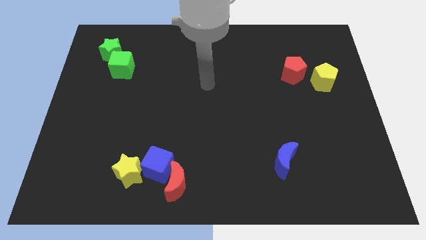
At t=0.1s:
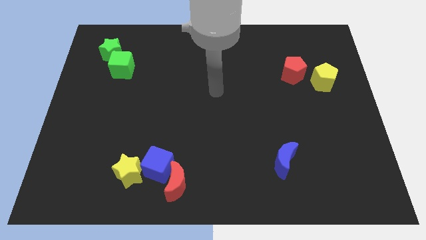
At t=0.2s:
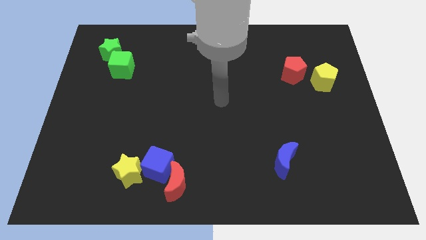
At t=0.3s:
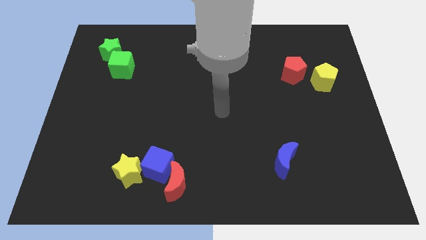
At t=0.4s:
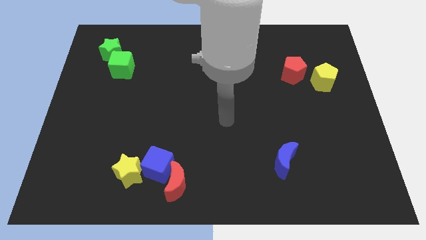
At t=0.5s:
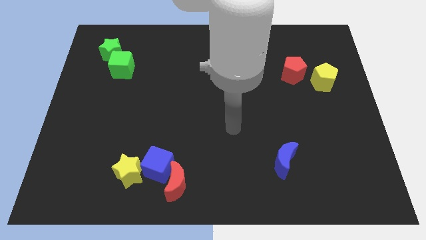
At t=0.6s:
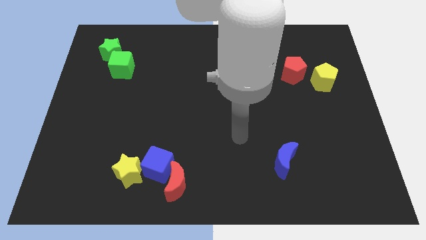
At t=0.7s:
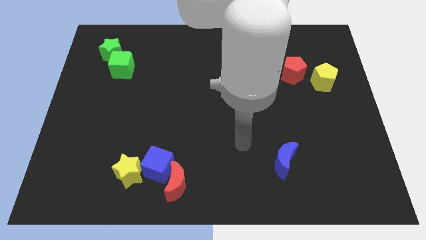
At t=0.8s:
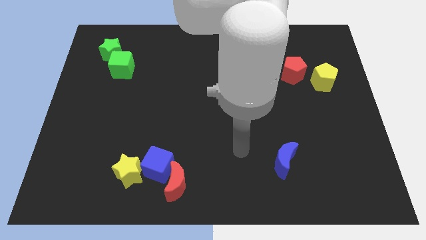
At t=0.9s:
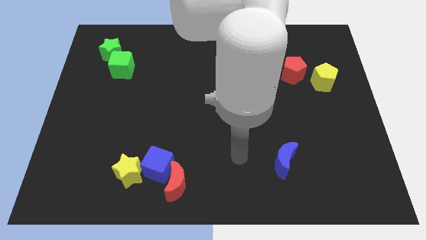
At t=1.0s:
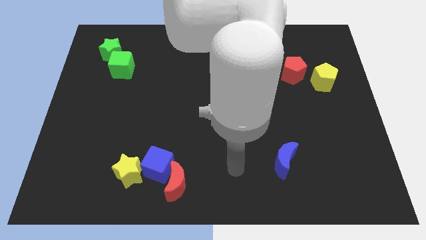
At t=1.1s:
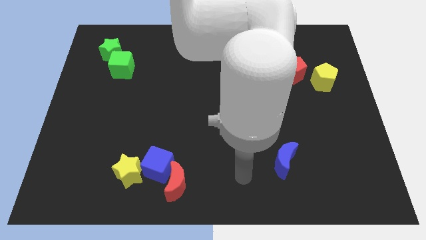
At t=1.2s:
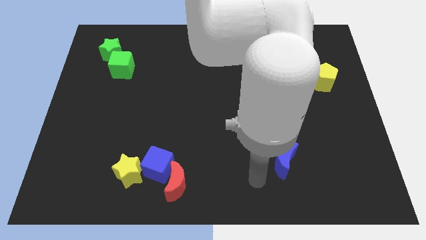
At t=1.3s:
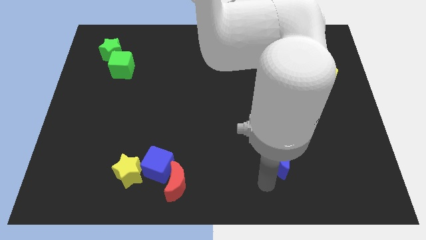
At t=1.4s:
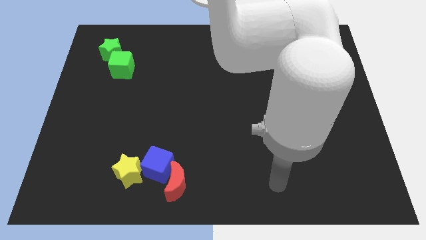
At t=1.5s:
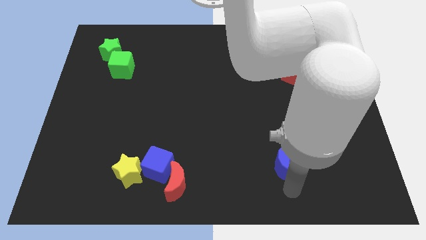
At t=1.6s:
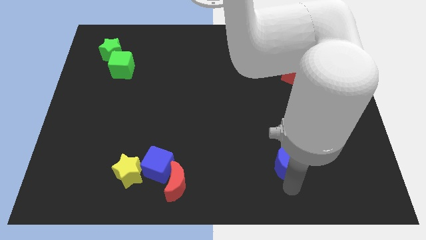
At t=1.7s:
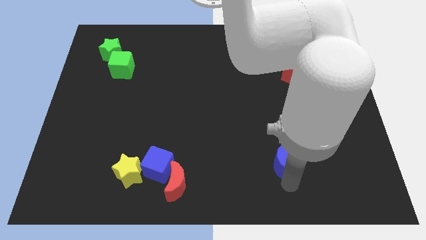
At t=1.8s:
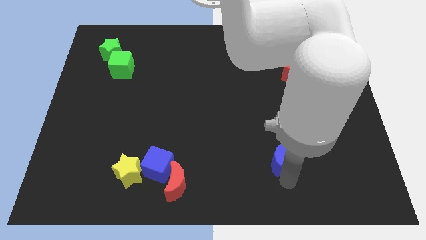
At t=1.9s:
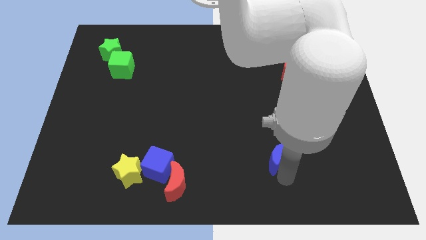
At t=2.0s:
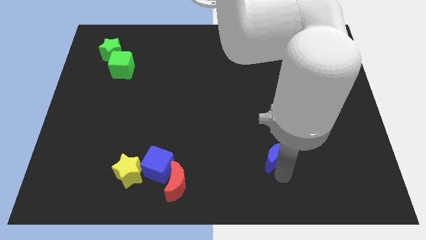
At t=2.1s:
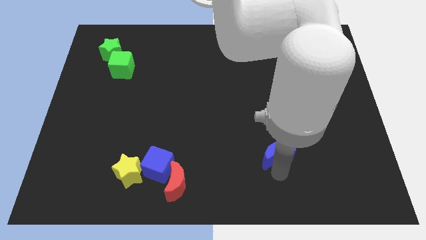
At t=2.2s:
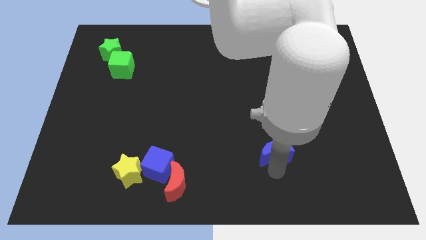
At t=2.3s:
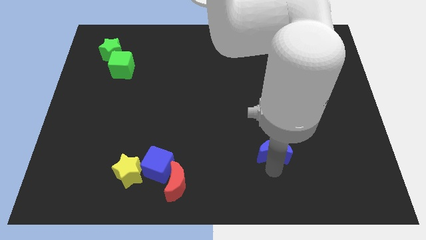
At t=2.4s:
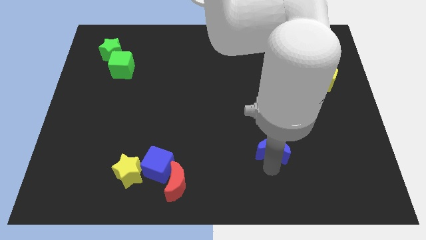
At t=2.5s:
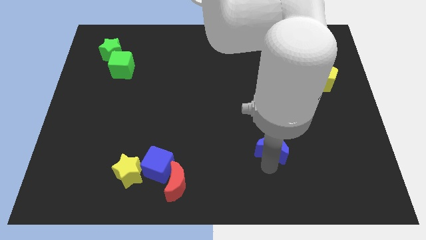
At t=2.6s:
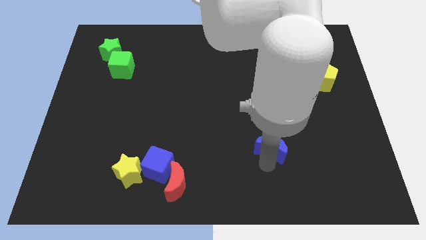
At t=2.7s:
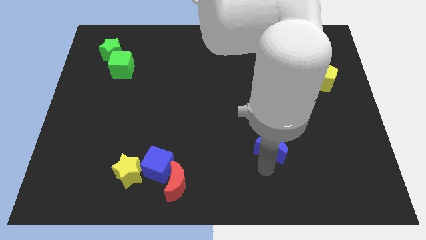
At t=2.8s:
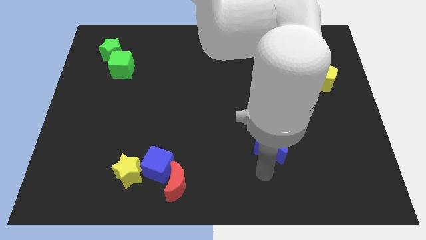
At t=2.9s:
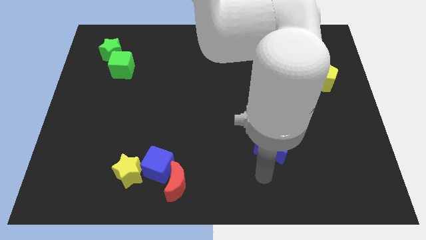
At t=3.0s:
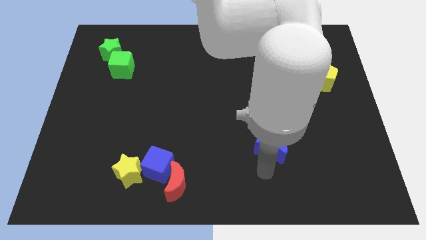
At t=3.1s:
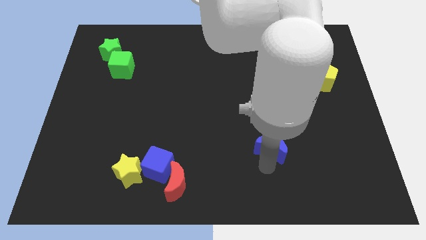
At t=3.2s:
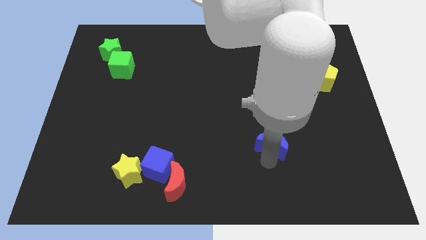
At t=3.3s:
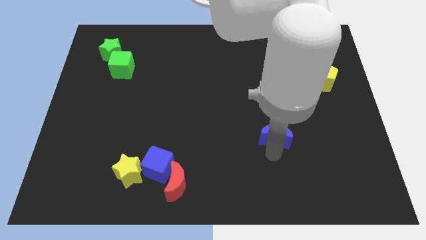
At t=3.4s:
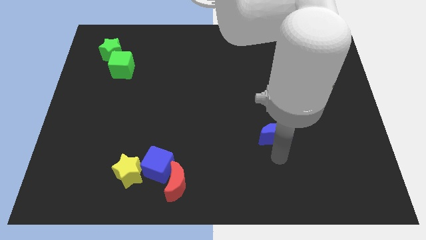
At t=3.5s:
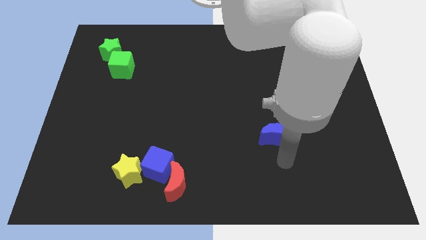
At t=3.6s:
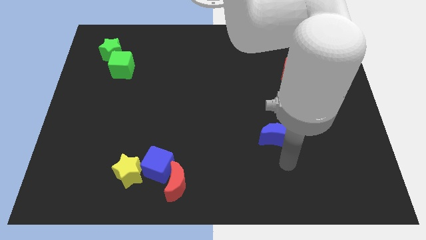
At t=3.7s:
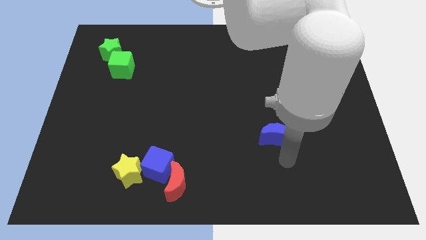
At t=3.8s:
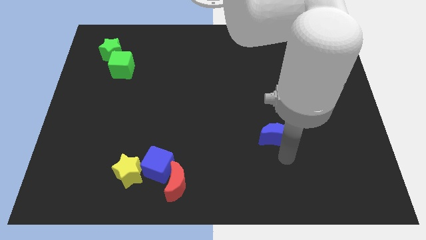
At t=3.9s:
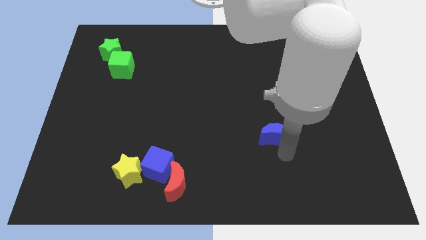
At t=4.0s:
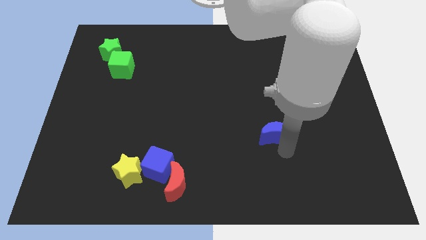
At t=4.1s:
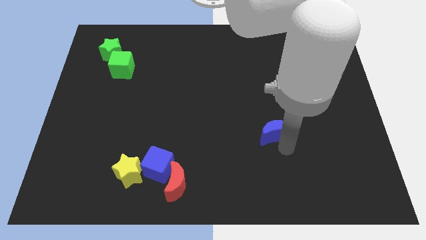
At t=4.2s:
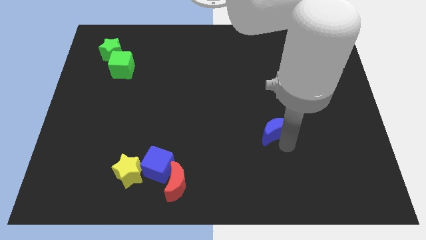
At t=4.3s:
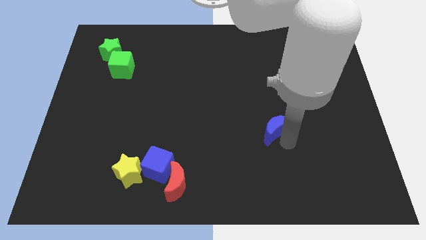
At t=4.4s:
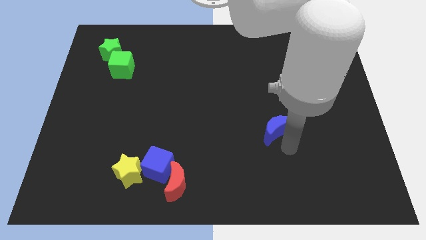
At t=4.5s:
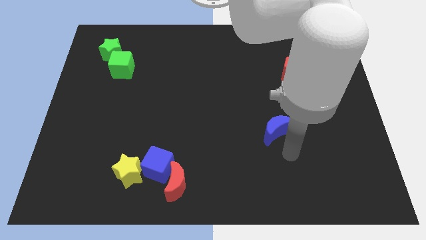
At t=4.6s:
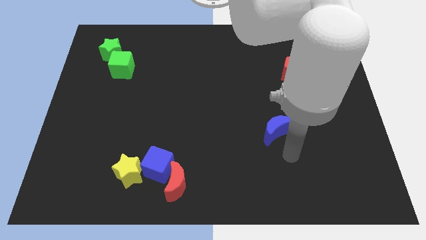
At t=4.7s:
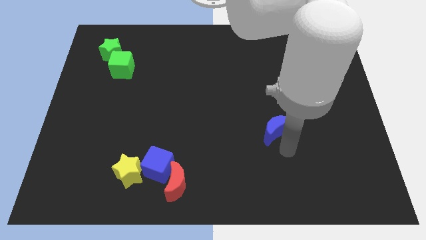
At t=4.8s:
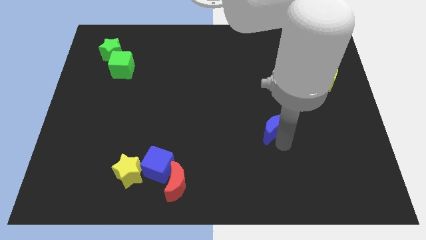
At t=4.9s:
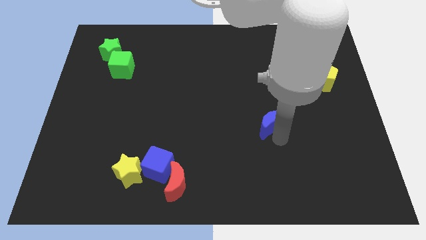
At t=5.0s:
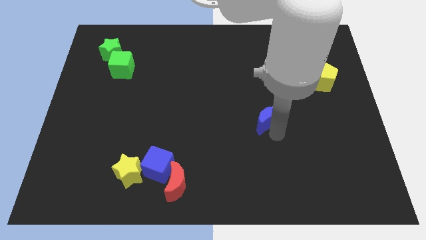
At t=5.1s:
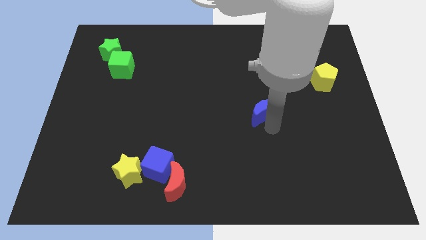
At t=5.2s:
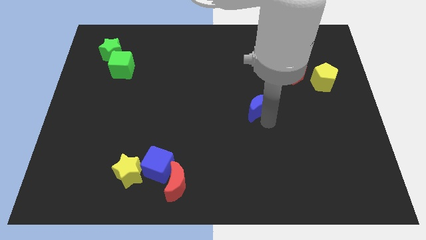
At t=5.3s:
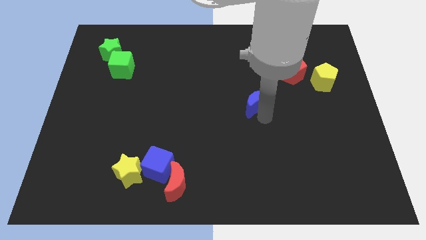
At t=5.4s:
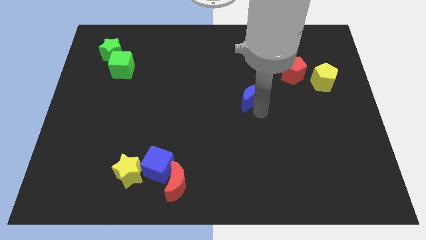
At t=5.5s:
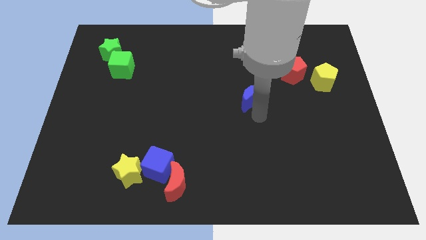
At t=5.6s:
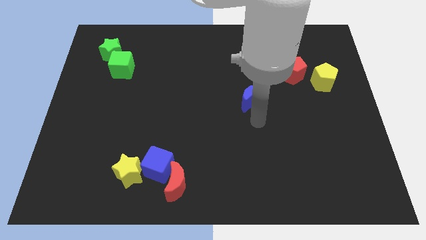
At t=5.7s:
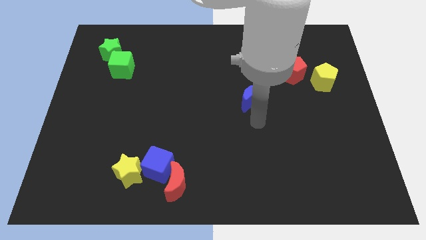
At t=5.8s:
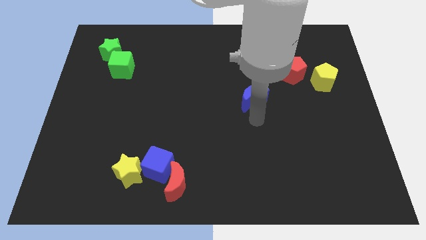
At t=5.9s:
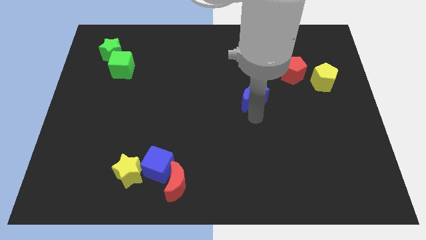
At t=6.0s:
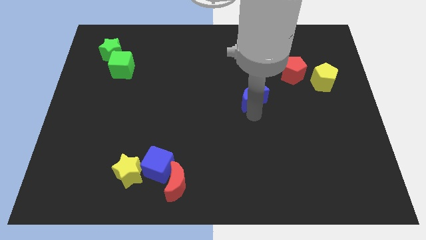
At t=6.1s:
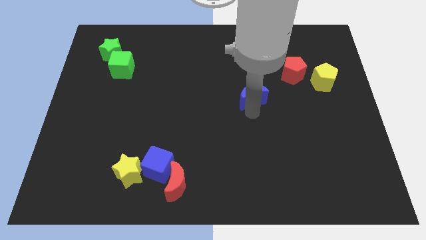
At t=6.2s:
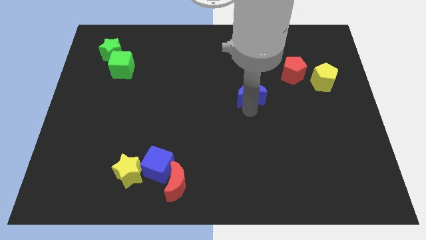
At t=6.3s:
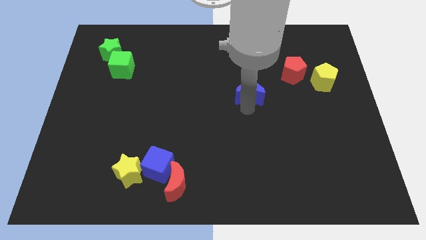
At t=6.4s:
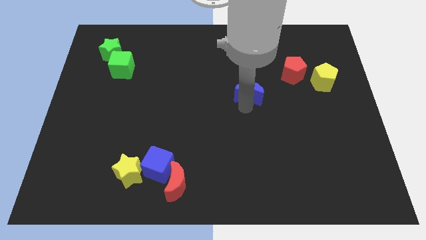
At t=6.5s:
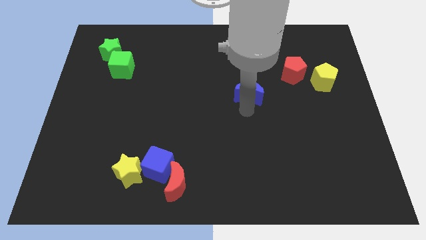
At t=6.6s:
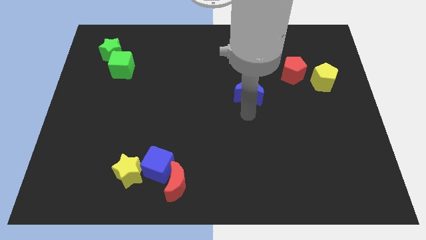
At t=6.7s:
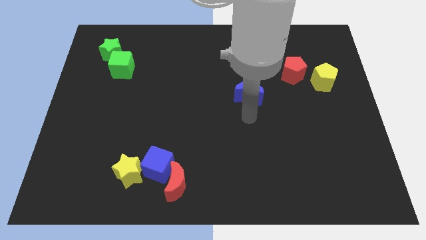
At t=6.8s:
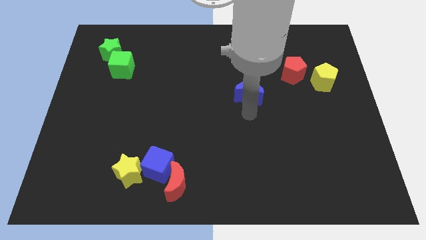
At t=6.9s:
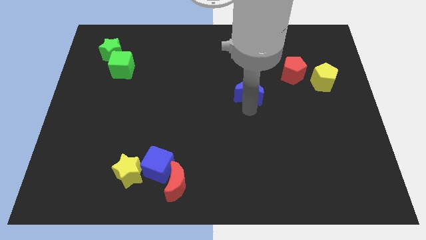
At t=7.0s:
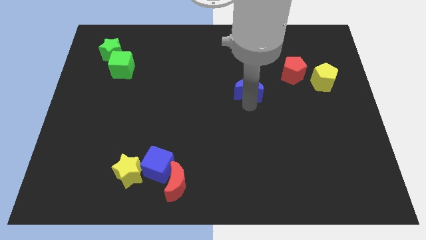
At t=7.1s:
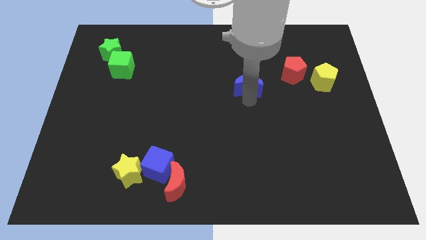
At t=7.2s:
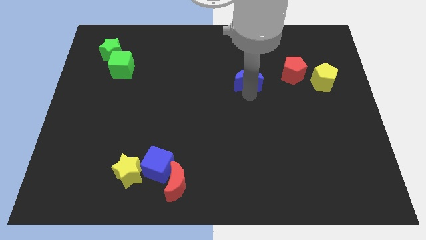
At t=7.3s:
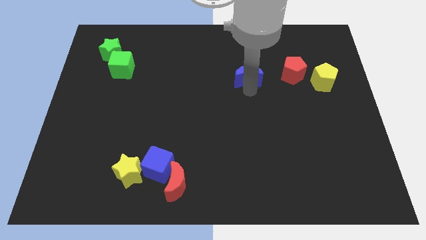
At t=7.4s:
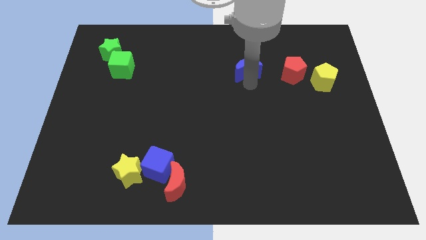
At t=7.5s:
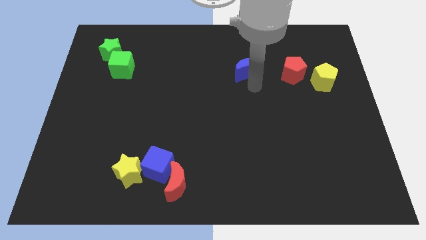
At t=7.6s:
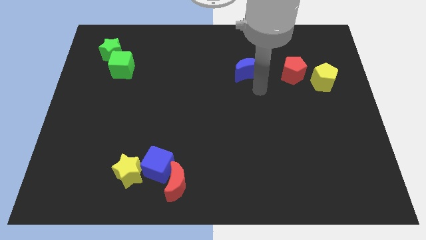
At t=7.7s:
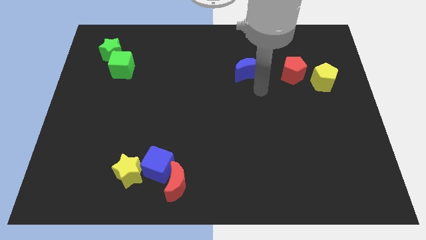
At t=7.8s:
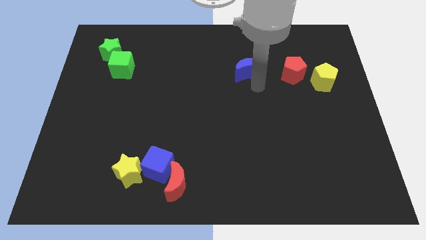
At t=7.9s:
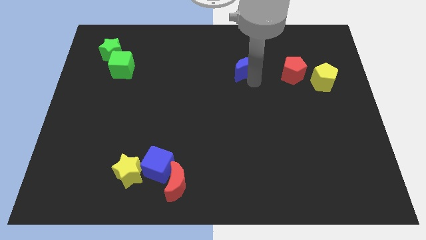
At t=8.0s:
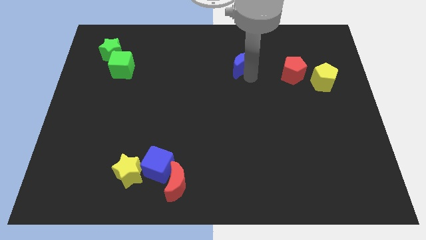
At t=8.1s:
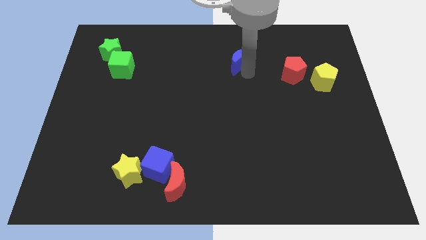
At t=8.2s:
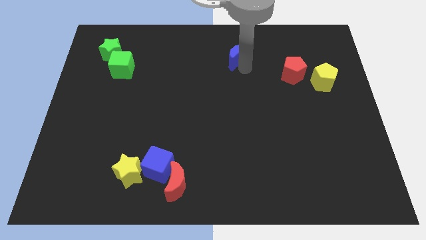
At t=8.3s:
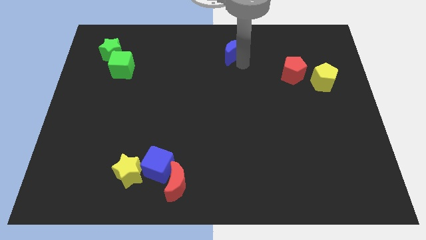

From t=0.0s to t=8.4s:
put the blue moon to the towards your base
